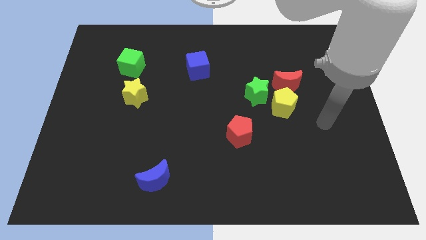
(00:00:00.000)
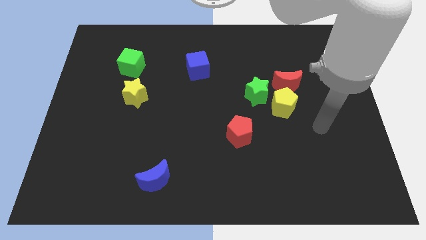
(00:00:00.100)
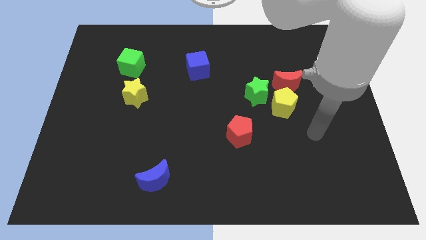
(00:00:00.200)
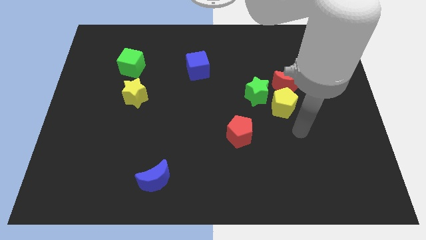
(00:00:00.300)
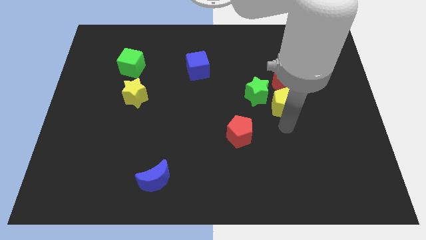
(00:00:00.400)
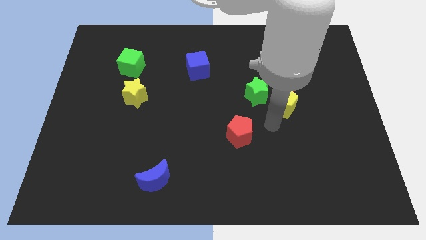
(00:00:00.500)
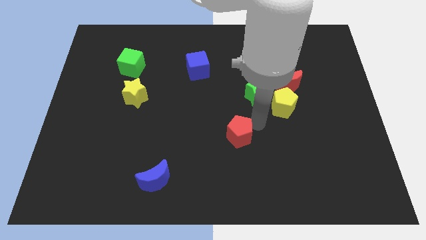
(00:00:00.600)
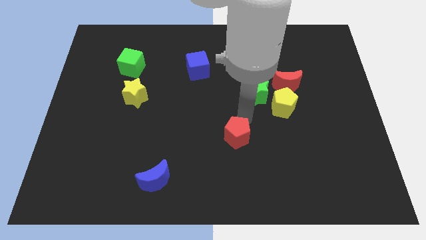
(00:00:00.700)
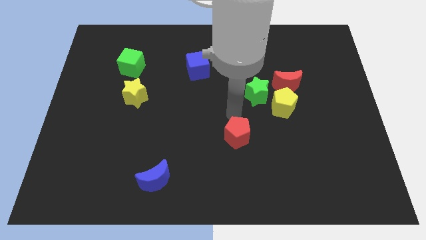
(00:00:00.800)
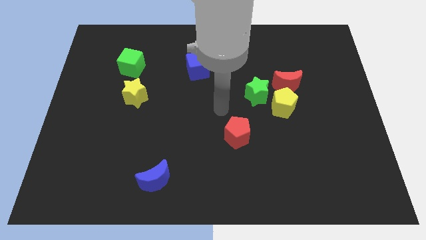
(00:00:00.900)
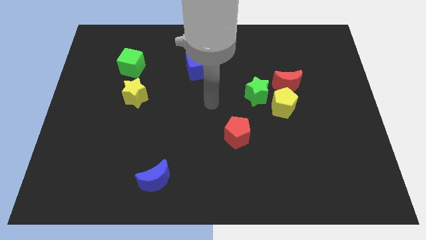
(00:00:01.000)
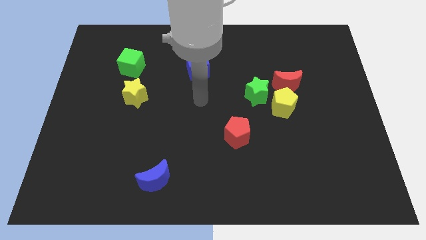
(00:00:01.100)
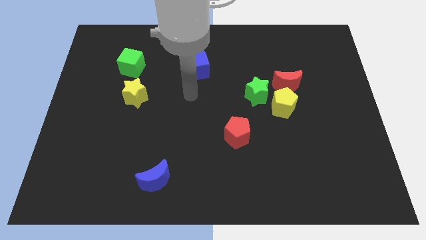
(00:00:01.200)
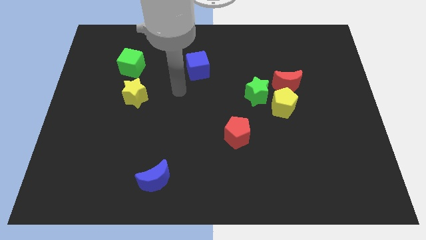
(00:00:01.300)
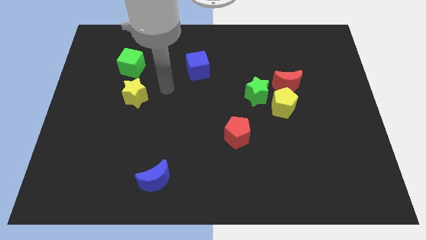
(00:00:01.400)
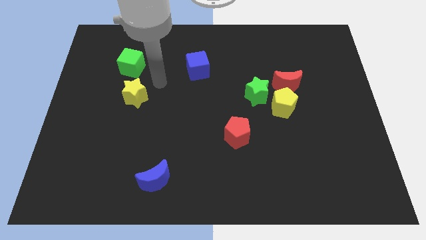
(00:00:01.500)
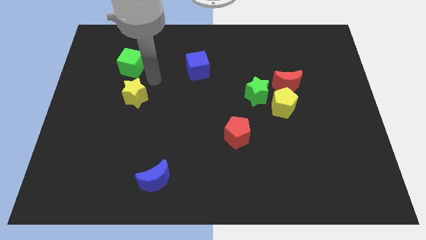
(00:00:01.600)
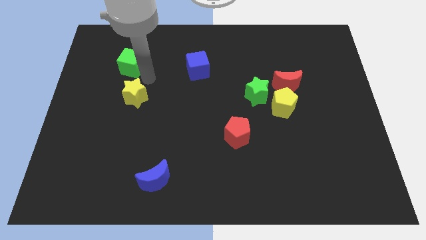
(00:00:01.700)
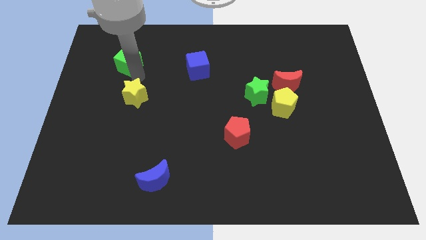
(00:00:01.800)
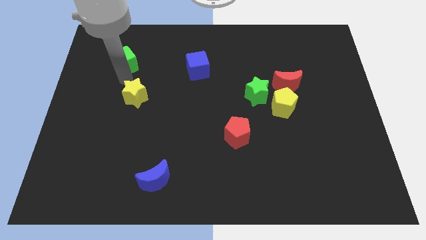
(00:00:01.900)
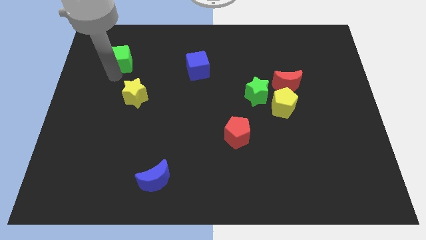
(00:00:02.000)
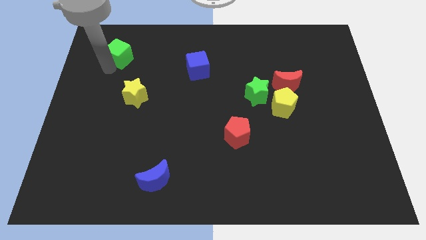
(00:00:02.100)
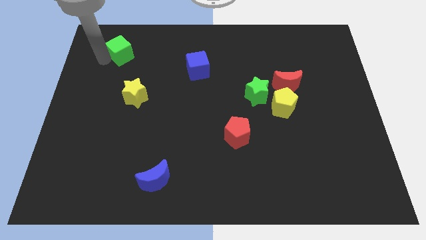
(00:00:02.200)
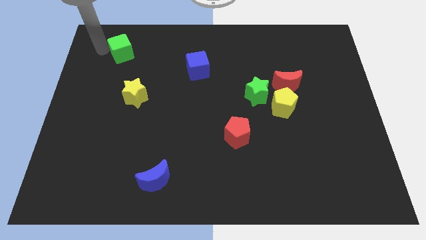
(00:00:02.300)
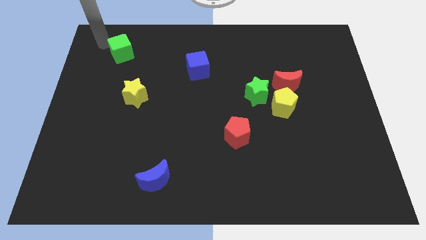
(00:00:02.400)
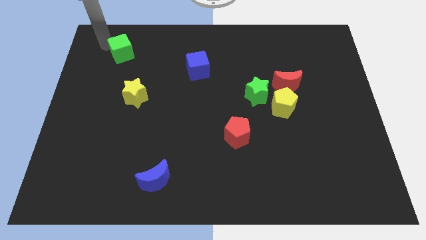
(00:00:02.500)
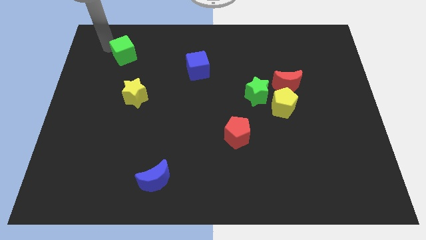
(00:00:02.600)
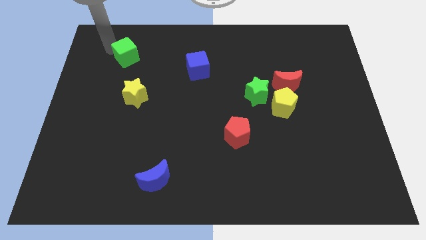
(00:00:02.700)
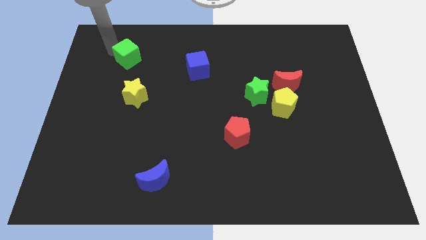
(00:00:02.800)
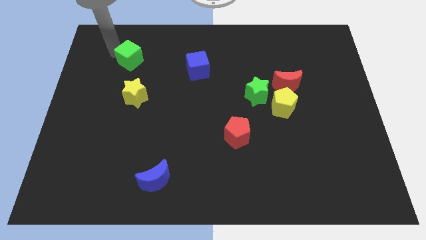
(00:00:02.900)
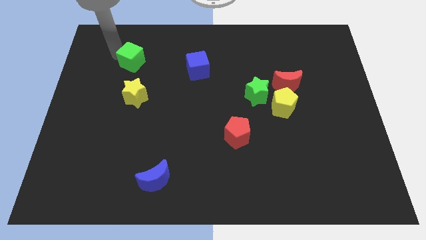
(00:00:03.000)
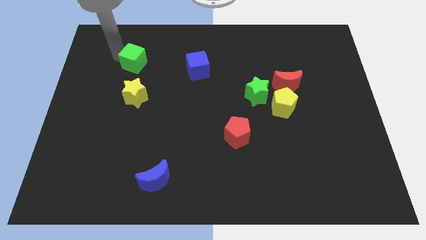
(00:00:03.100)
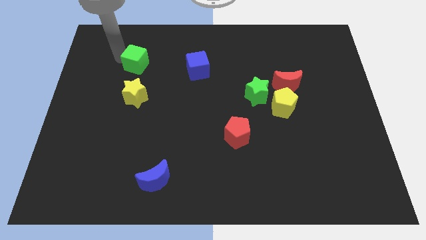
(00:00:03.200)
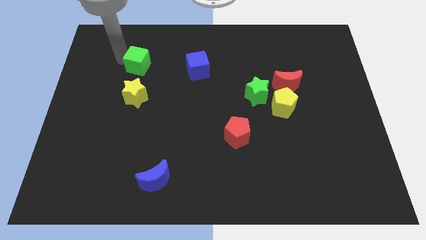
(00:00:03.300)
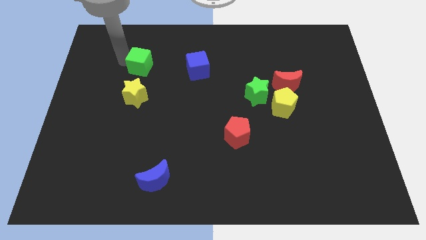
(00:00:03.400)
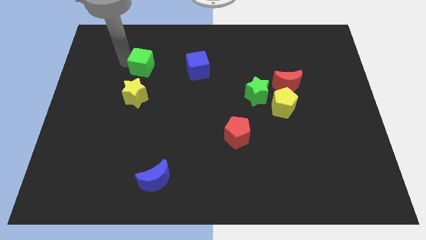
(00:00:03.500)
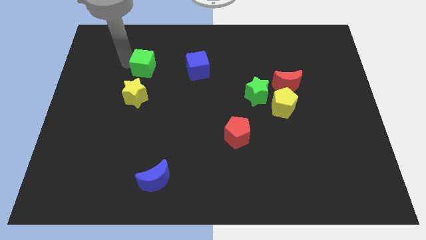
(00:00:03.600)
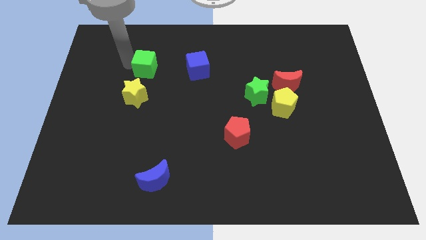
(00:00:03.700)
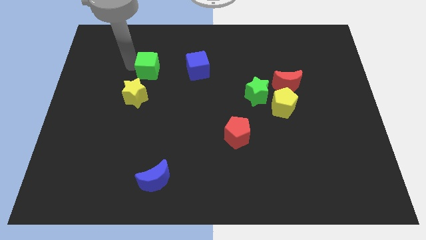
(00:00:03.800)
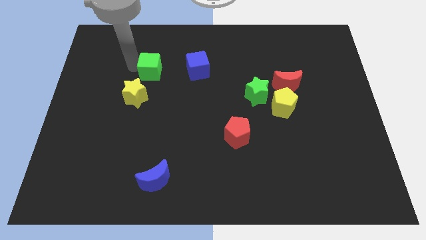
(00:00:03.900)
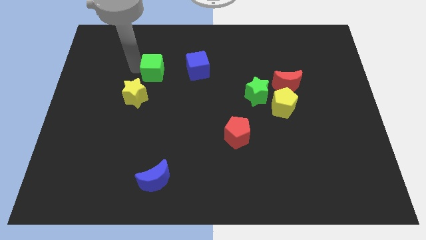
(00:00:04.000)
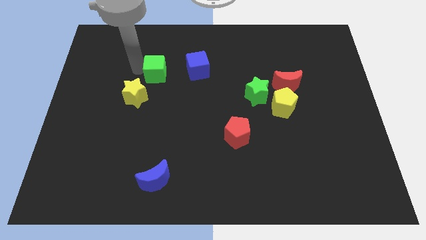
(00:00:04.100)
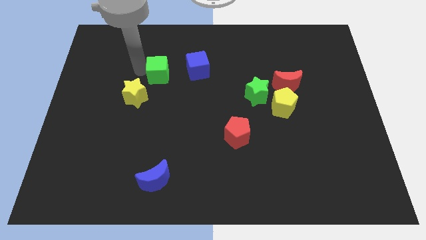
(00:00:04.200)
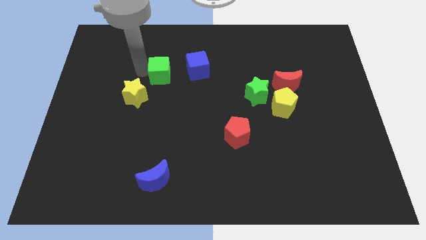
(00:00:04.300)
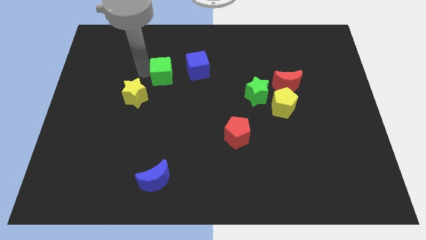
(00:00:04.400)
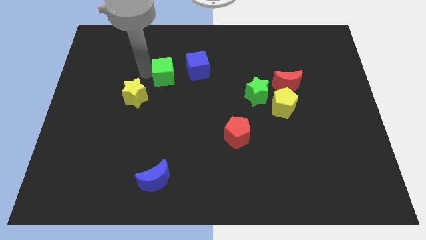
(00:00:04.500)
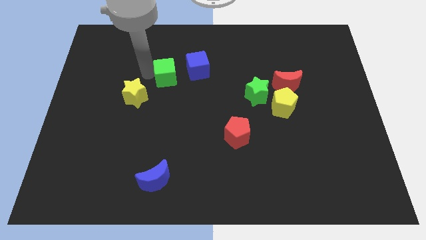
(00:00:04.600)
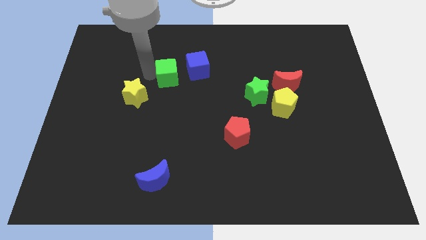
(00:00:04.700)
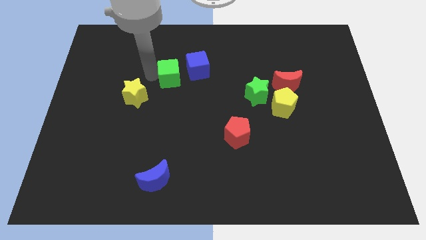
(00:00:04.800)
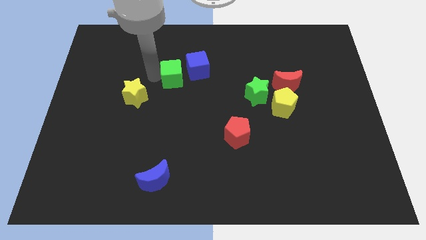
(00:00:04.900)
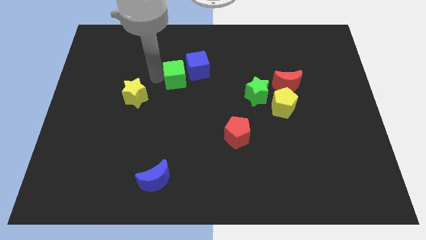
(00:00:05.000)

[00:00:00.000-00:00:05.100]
move the green cube towards the blue cube

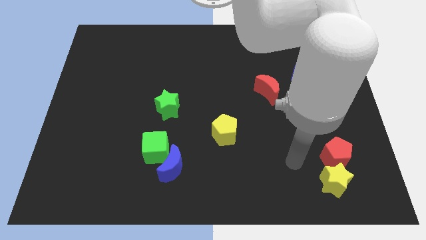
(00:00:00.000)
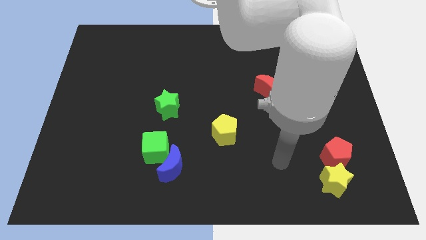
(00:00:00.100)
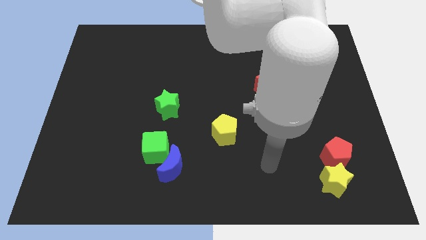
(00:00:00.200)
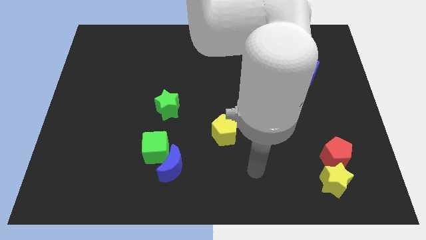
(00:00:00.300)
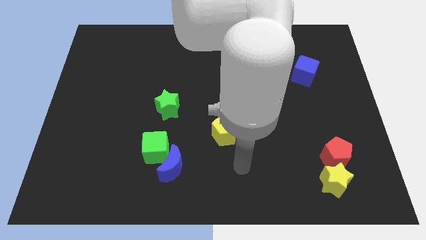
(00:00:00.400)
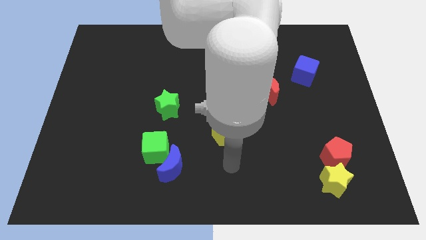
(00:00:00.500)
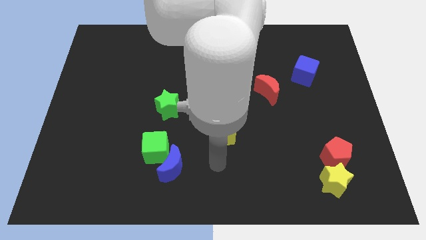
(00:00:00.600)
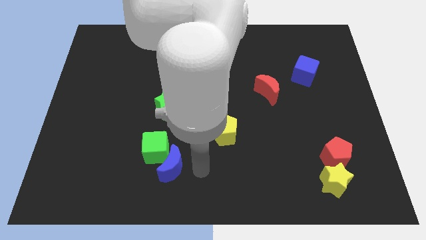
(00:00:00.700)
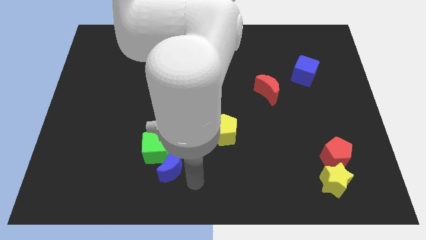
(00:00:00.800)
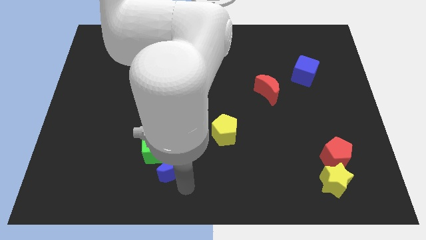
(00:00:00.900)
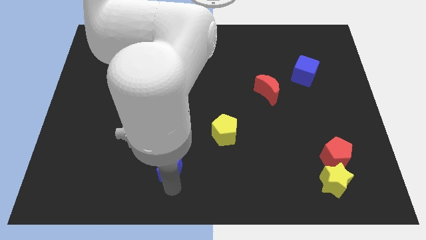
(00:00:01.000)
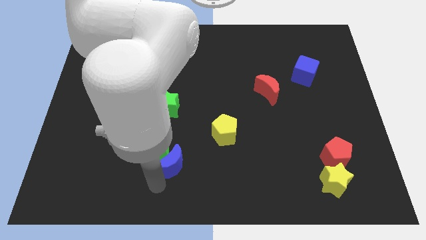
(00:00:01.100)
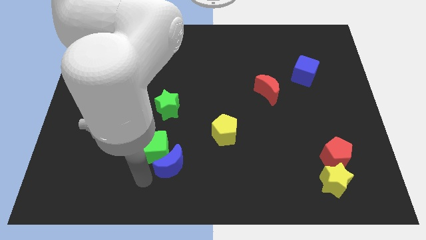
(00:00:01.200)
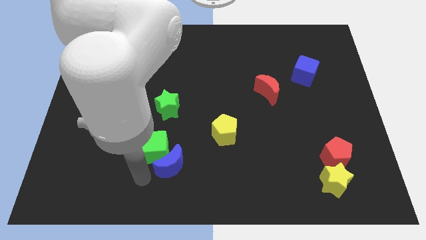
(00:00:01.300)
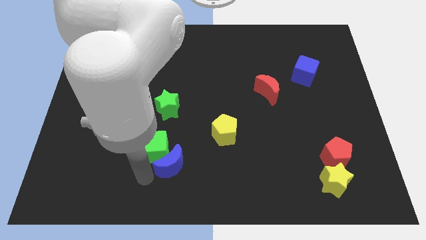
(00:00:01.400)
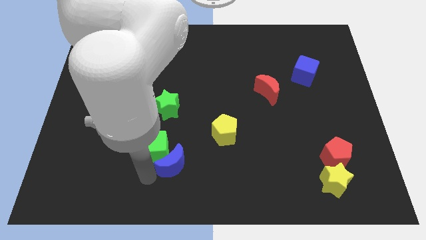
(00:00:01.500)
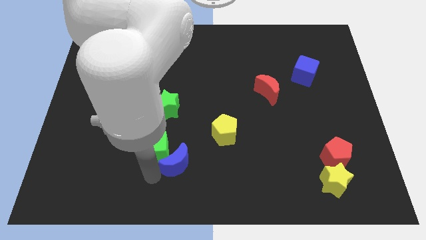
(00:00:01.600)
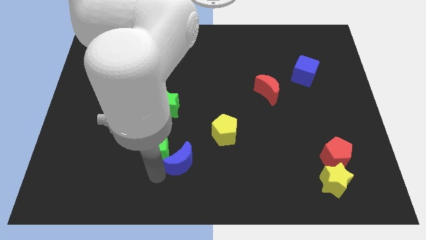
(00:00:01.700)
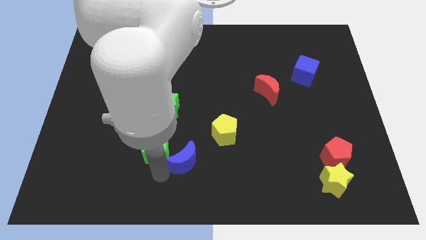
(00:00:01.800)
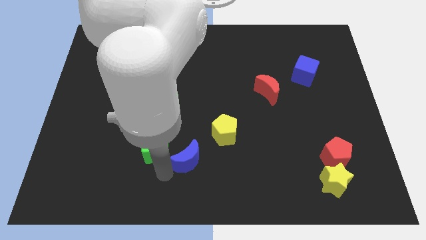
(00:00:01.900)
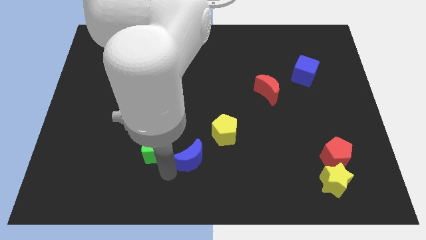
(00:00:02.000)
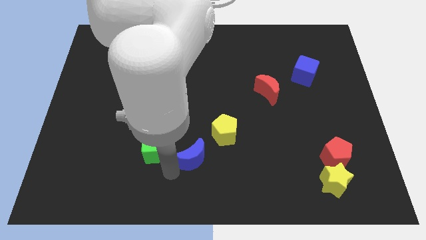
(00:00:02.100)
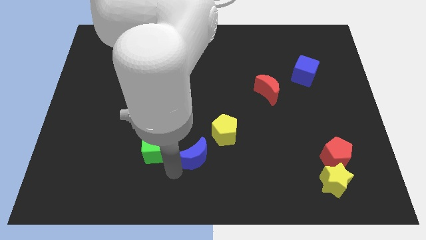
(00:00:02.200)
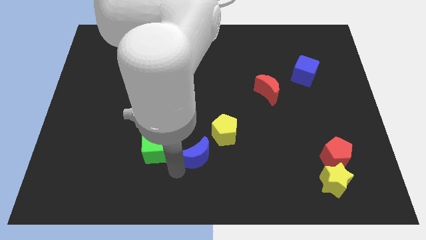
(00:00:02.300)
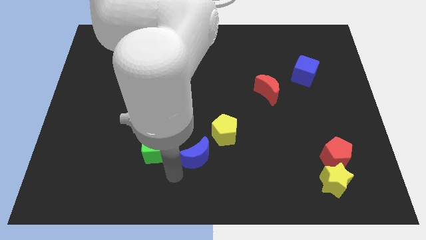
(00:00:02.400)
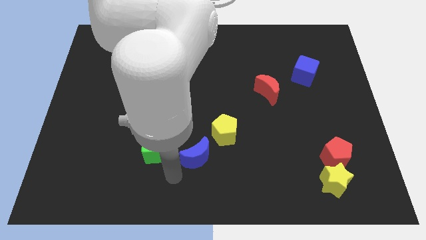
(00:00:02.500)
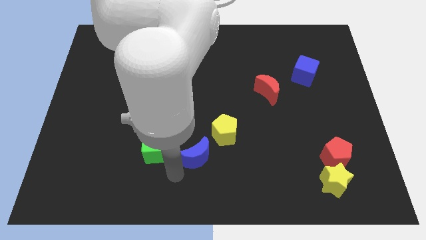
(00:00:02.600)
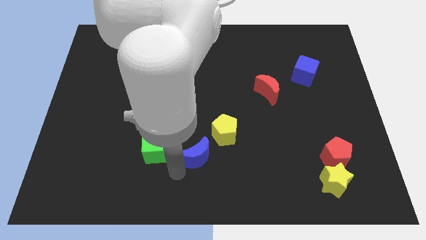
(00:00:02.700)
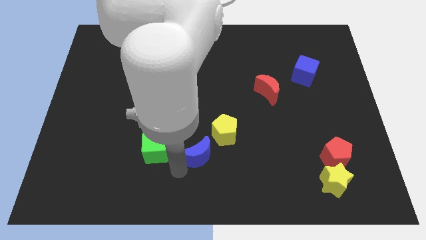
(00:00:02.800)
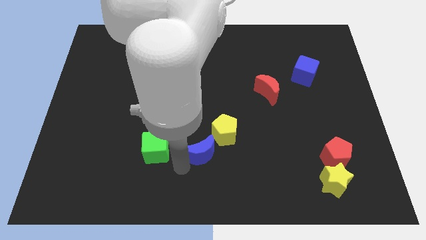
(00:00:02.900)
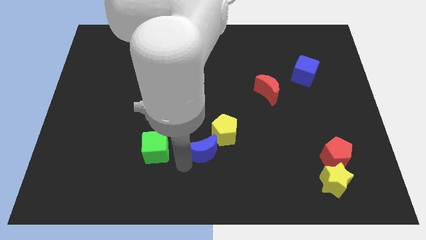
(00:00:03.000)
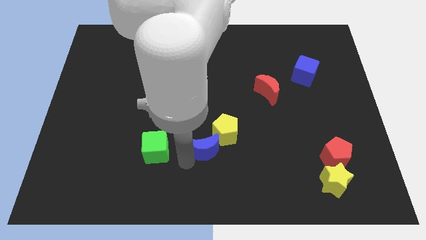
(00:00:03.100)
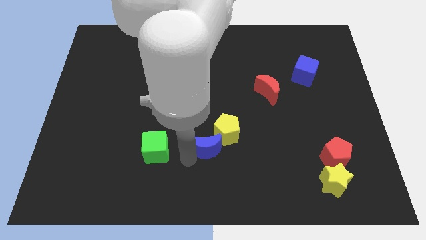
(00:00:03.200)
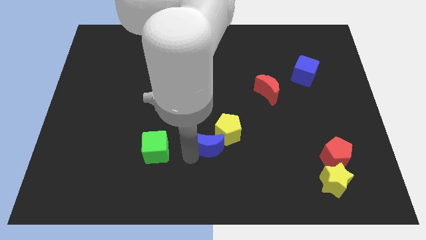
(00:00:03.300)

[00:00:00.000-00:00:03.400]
push the blue moon close to the yellow pentagon
